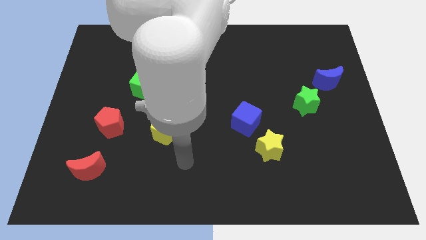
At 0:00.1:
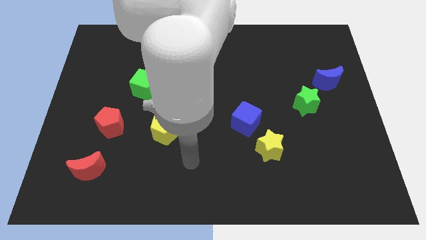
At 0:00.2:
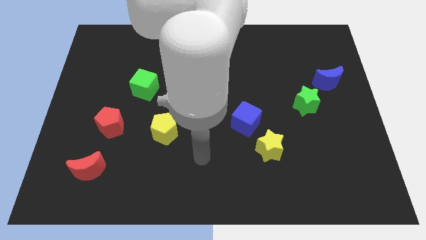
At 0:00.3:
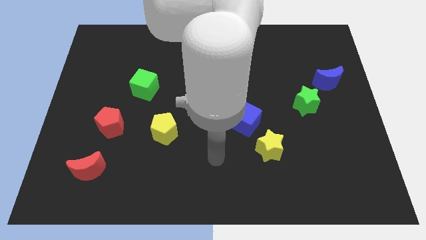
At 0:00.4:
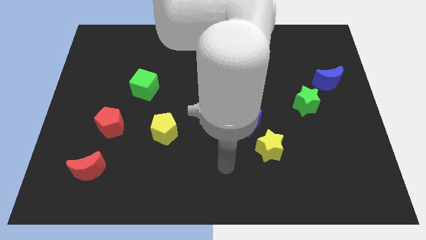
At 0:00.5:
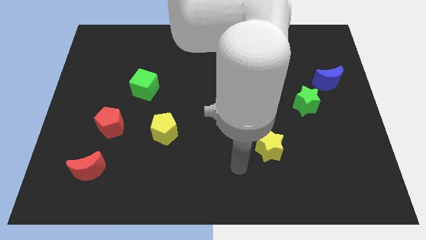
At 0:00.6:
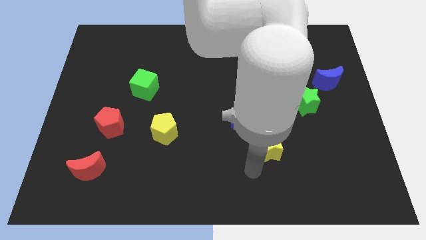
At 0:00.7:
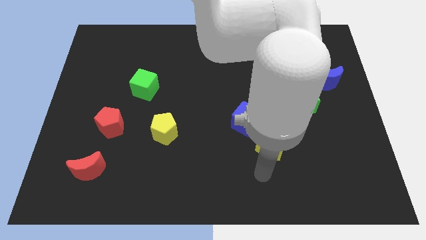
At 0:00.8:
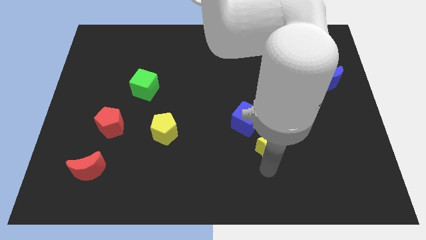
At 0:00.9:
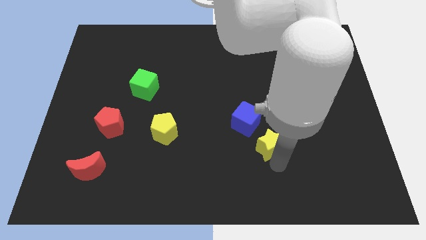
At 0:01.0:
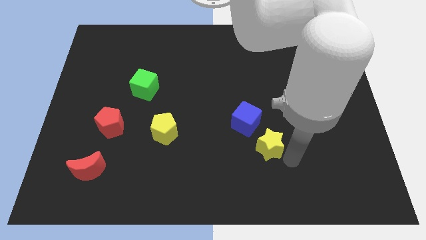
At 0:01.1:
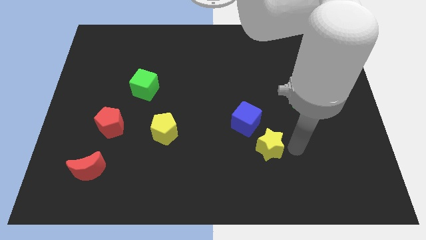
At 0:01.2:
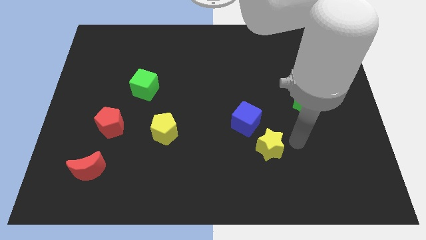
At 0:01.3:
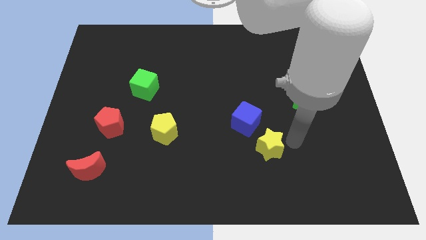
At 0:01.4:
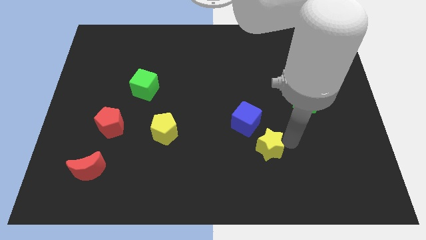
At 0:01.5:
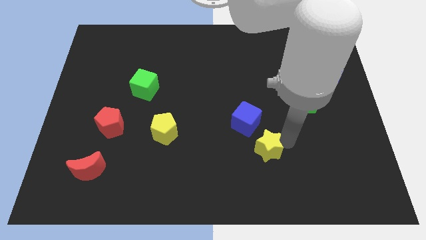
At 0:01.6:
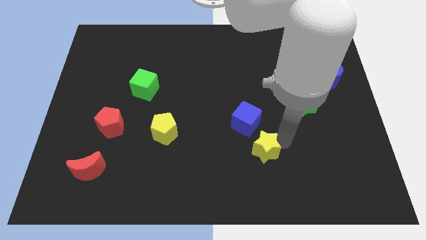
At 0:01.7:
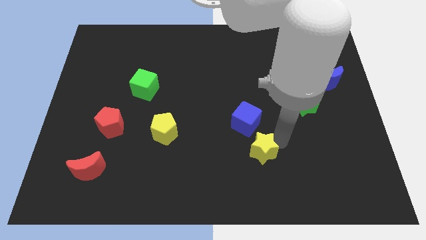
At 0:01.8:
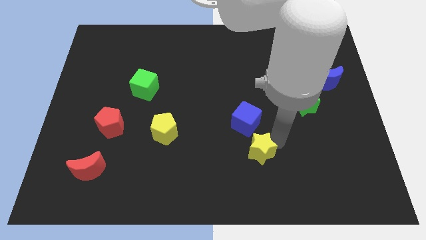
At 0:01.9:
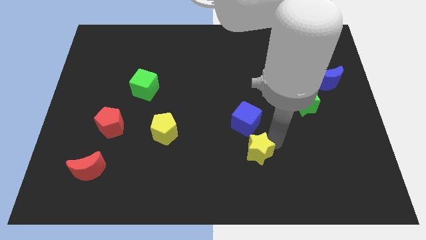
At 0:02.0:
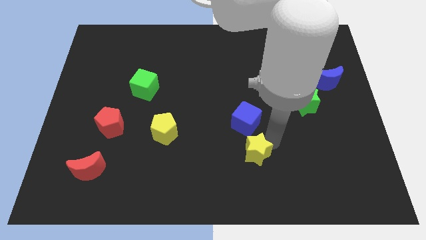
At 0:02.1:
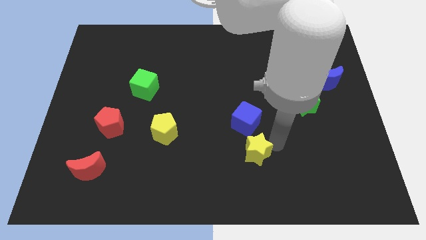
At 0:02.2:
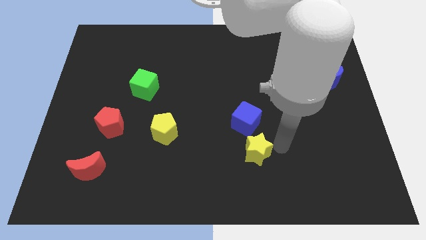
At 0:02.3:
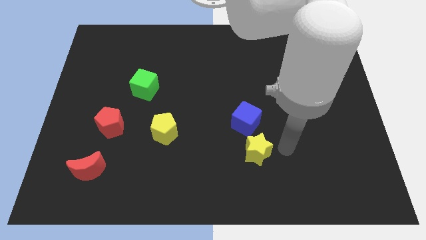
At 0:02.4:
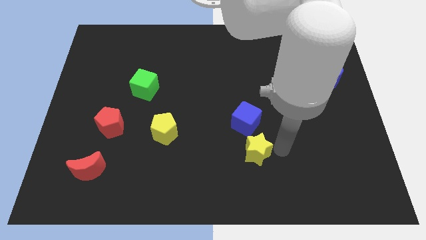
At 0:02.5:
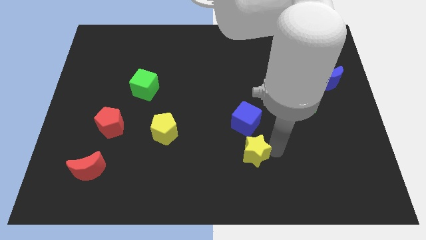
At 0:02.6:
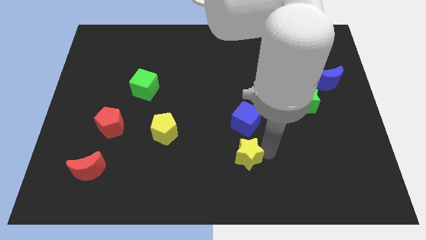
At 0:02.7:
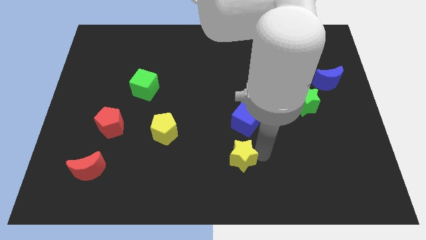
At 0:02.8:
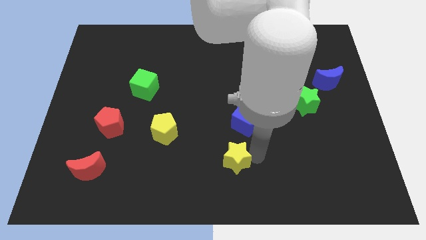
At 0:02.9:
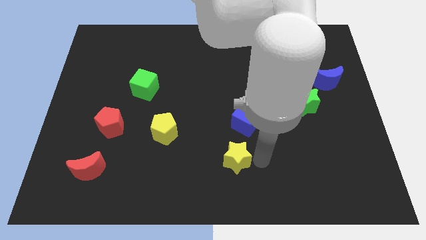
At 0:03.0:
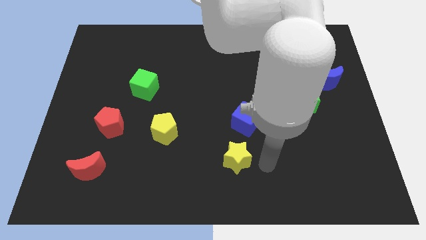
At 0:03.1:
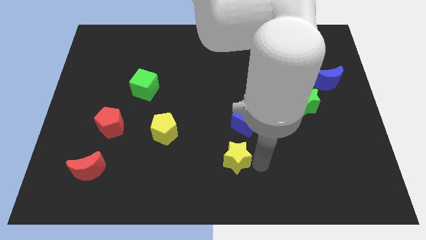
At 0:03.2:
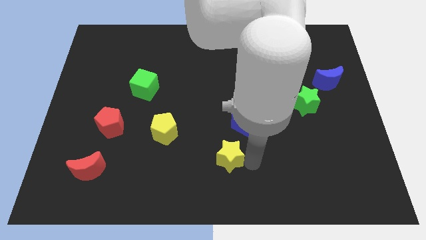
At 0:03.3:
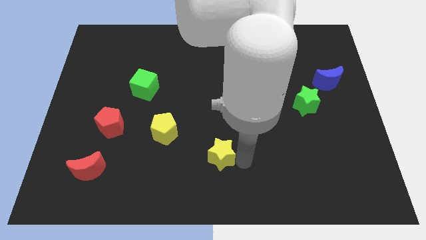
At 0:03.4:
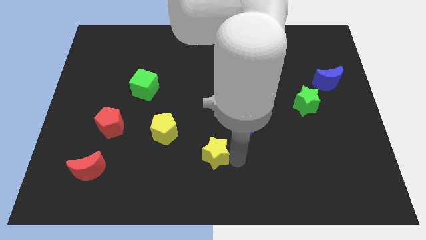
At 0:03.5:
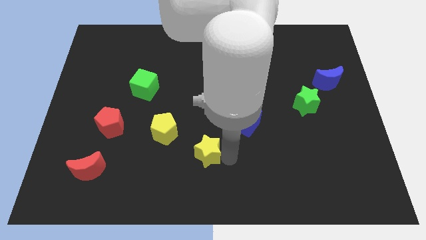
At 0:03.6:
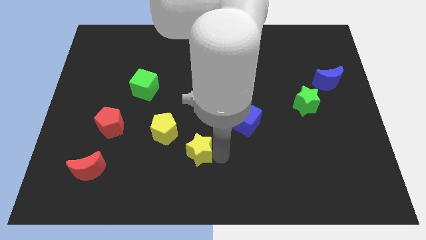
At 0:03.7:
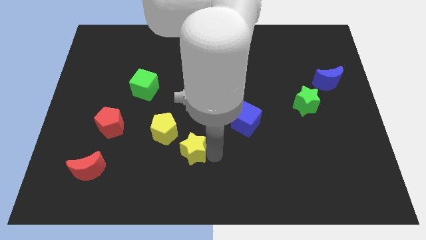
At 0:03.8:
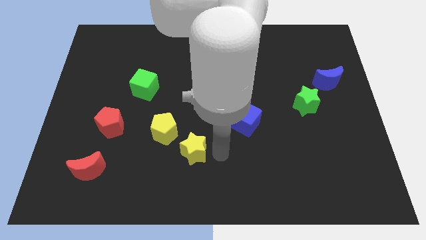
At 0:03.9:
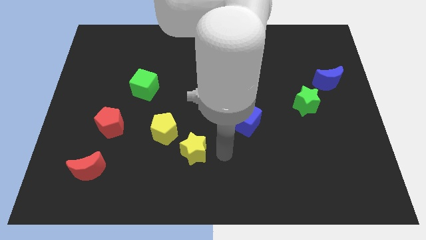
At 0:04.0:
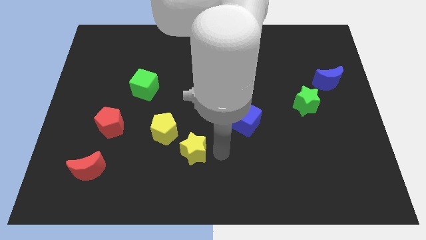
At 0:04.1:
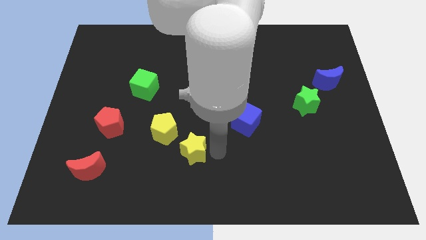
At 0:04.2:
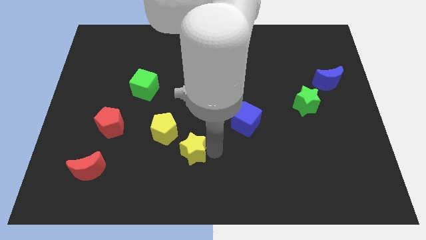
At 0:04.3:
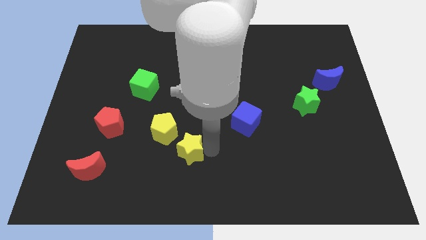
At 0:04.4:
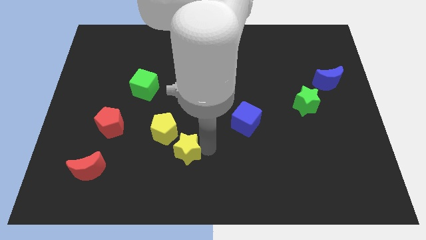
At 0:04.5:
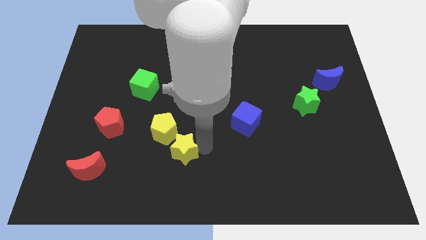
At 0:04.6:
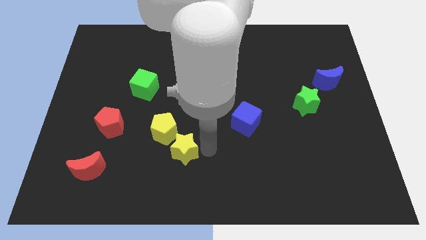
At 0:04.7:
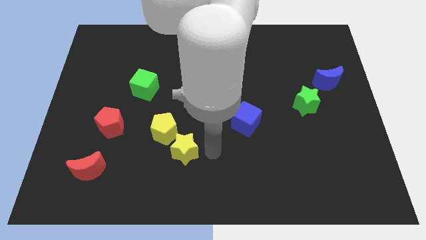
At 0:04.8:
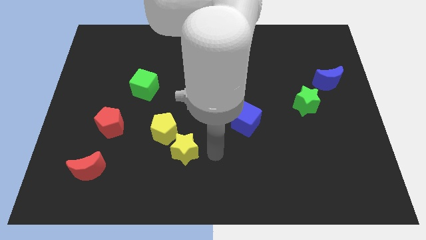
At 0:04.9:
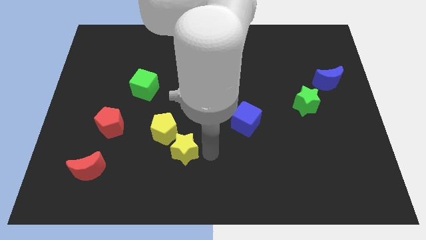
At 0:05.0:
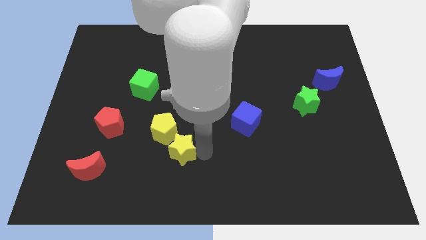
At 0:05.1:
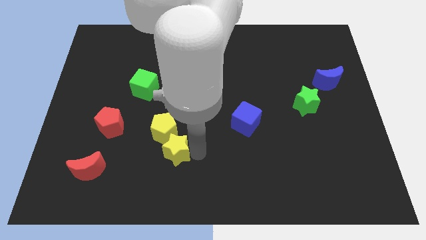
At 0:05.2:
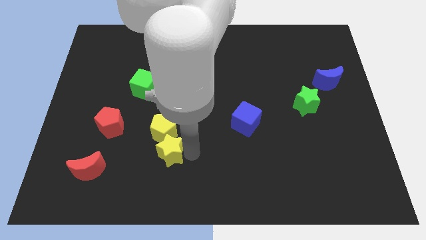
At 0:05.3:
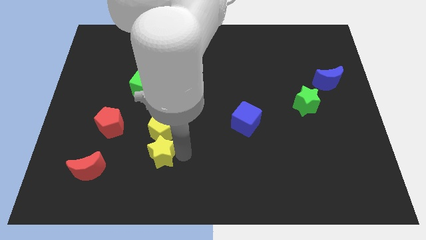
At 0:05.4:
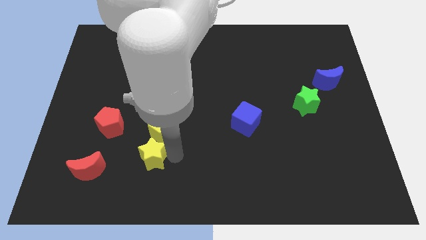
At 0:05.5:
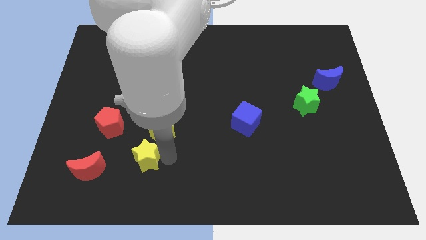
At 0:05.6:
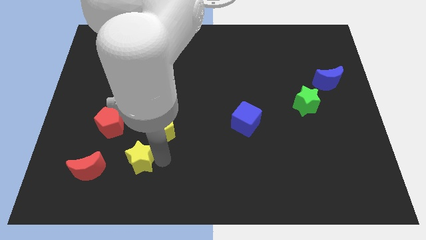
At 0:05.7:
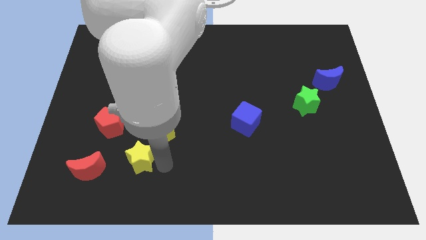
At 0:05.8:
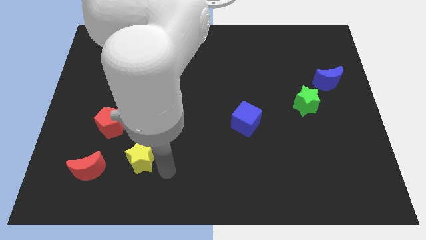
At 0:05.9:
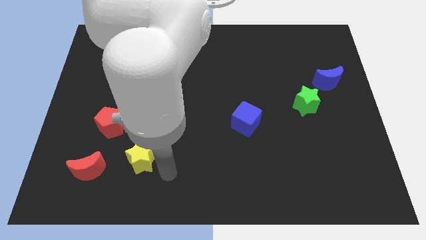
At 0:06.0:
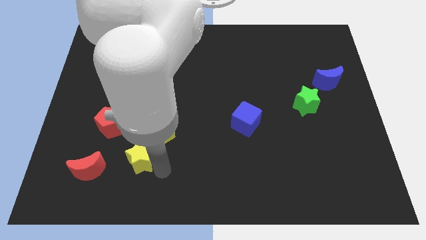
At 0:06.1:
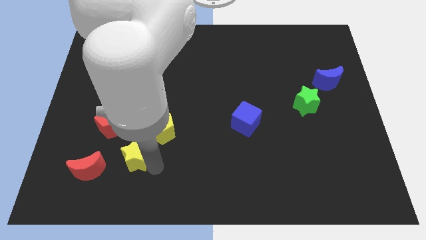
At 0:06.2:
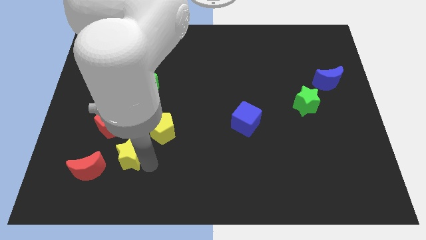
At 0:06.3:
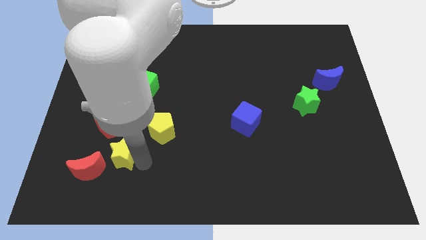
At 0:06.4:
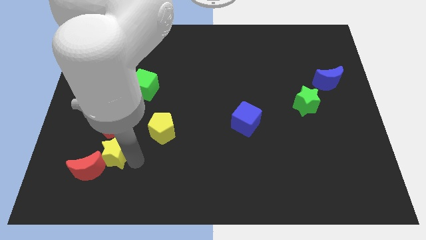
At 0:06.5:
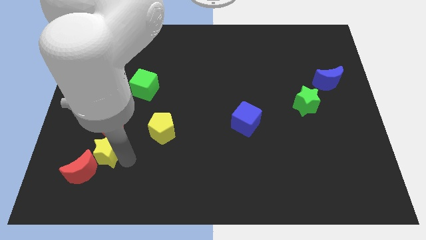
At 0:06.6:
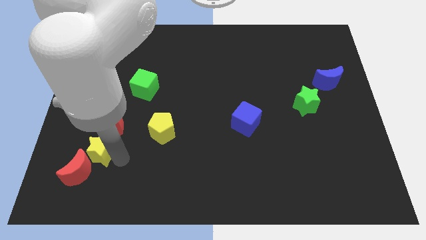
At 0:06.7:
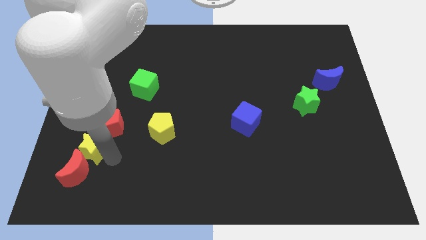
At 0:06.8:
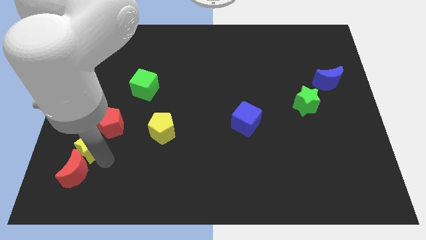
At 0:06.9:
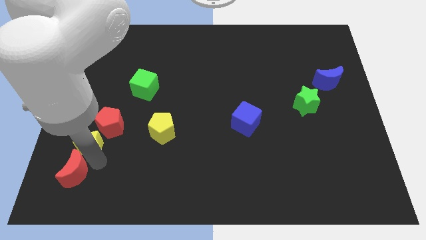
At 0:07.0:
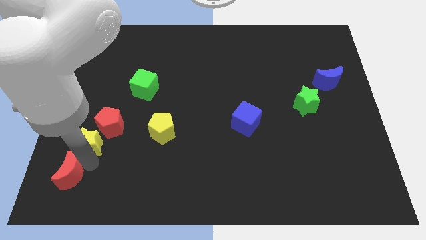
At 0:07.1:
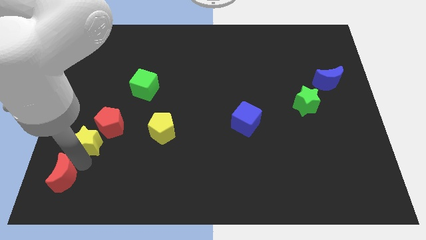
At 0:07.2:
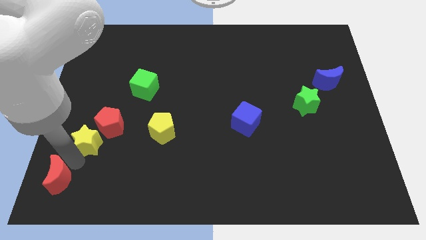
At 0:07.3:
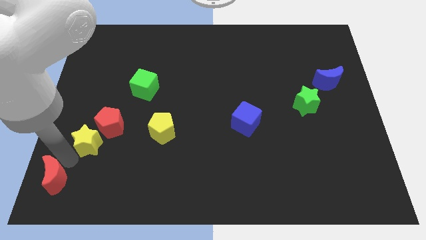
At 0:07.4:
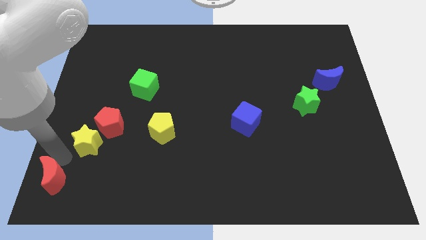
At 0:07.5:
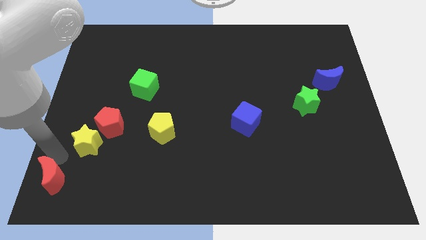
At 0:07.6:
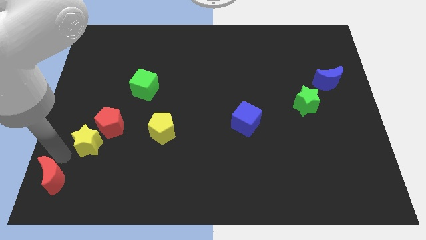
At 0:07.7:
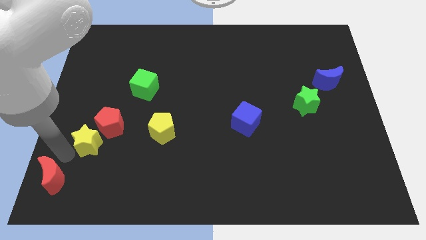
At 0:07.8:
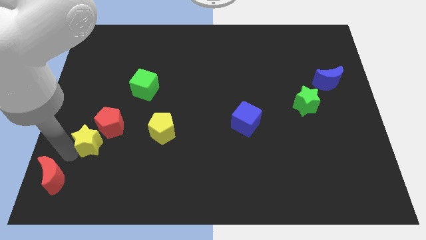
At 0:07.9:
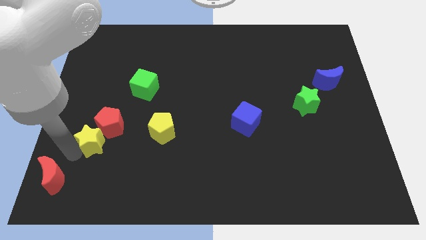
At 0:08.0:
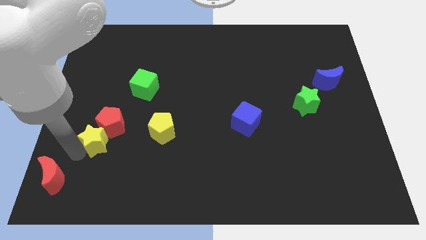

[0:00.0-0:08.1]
move the yellow star to the left of the yellow pentagon

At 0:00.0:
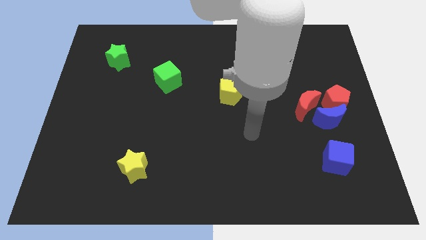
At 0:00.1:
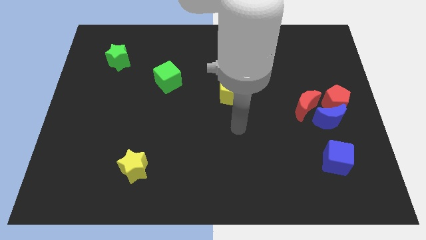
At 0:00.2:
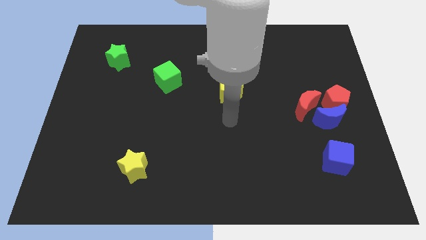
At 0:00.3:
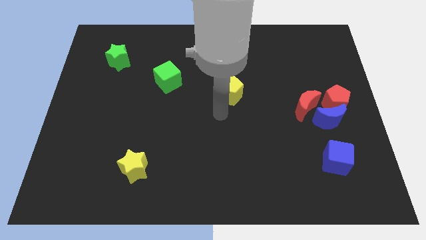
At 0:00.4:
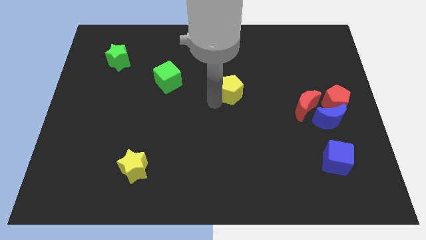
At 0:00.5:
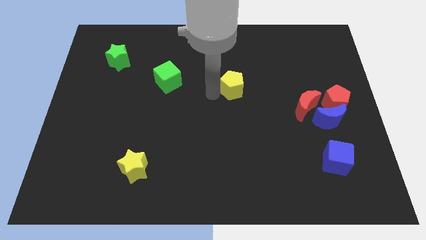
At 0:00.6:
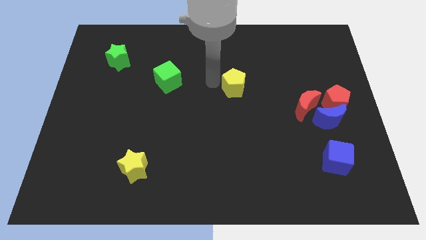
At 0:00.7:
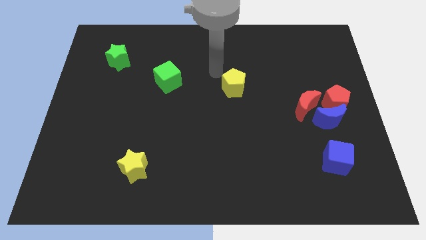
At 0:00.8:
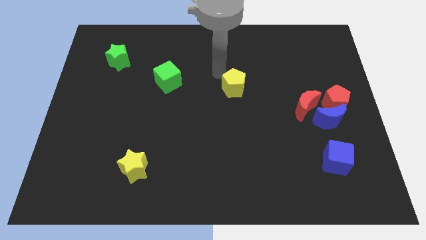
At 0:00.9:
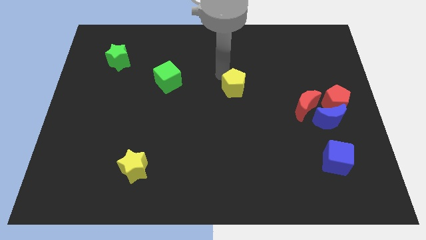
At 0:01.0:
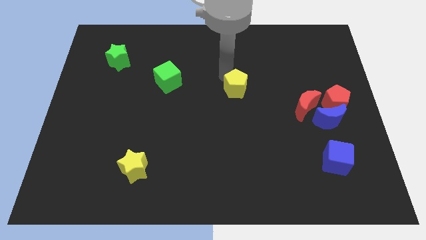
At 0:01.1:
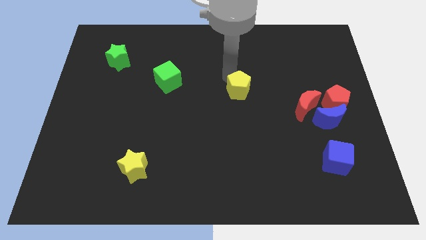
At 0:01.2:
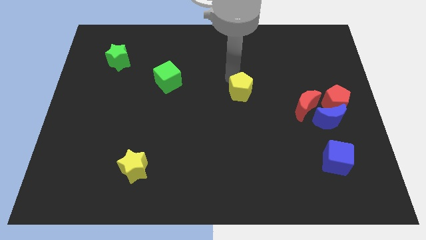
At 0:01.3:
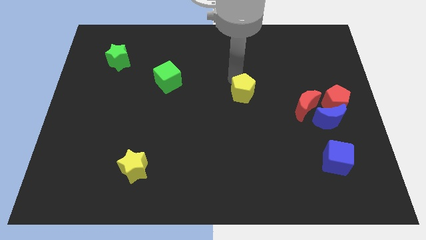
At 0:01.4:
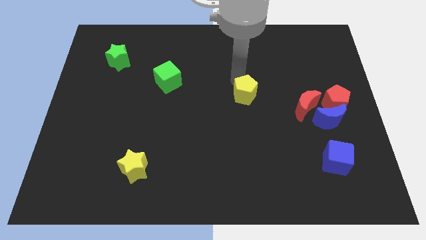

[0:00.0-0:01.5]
put the yellow pentagon to the left side of the red moon
